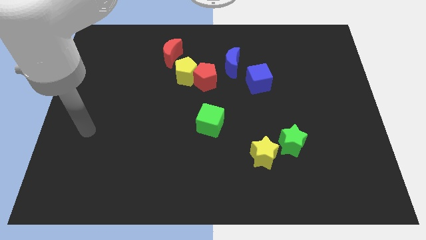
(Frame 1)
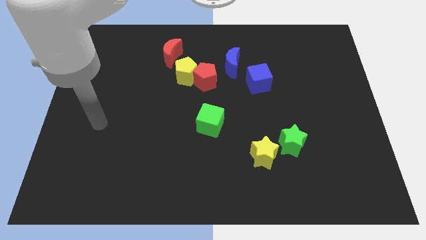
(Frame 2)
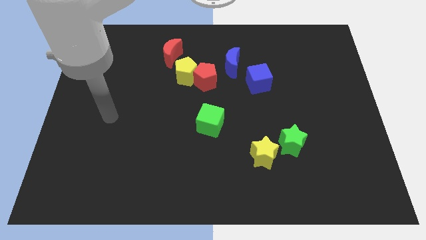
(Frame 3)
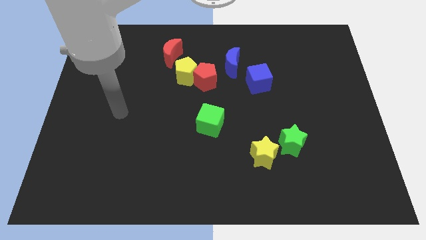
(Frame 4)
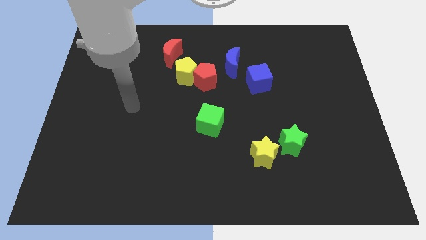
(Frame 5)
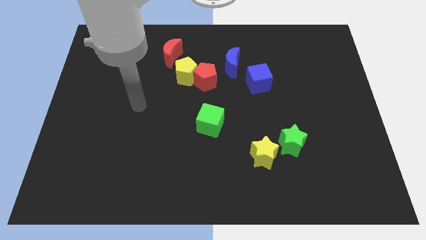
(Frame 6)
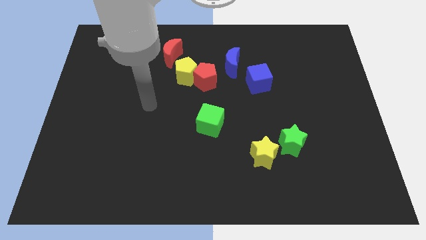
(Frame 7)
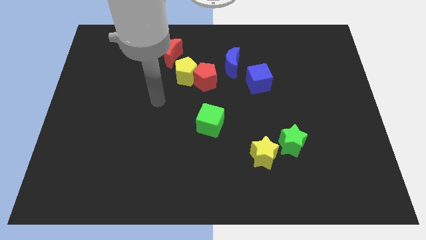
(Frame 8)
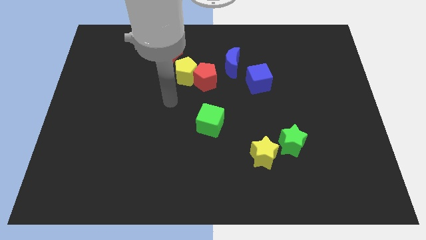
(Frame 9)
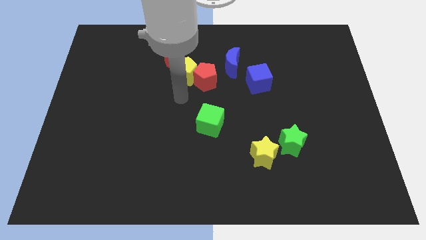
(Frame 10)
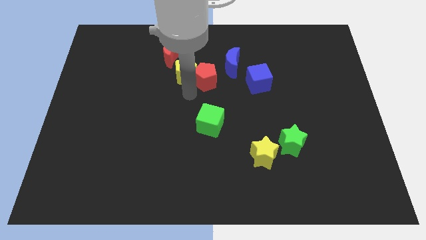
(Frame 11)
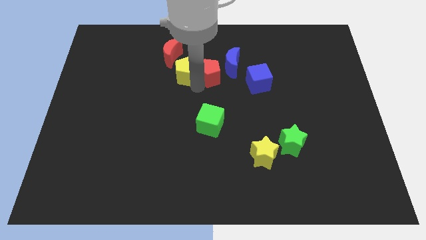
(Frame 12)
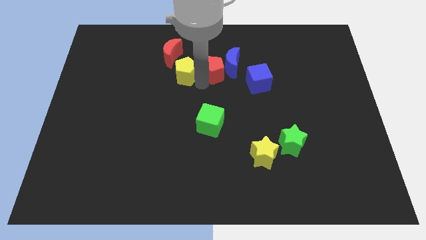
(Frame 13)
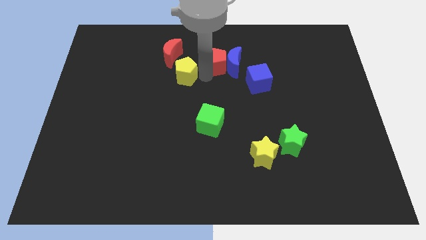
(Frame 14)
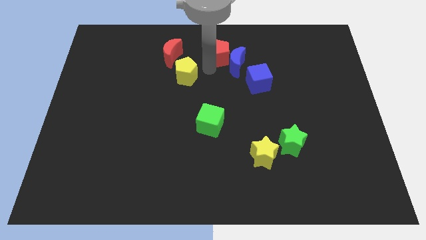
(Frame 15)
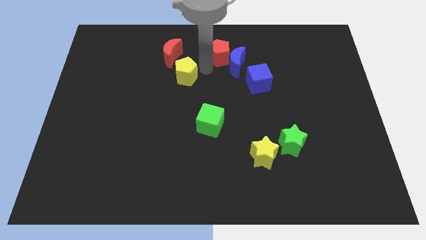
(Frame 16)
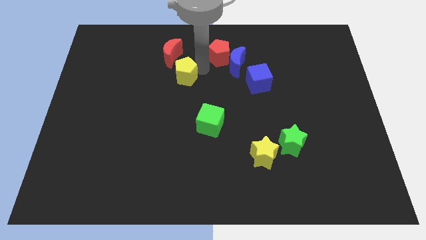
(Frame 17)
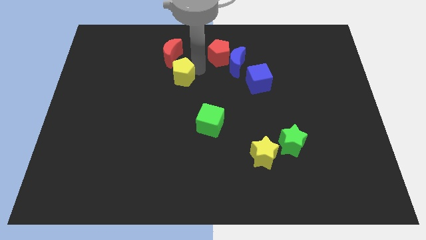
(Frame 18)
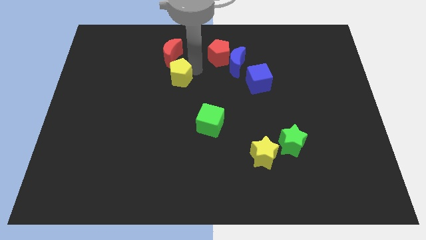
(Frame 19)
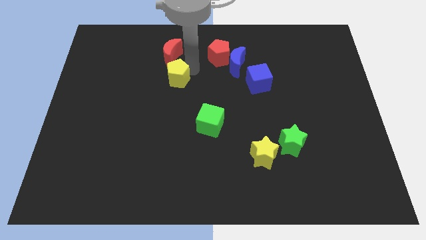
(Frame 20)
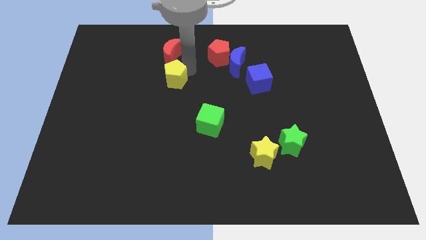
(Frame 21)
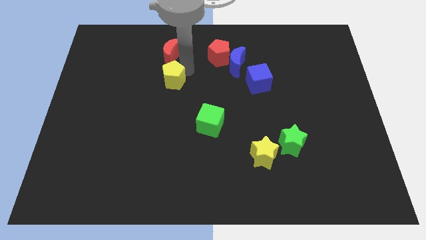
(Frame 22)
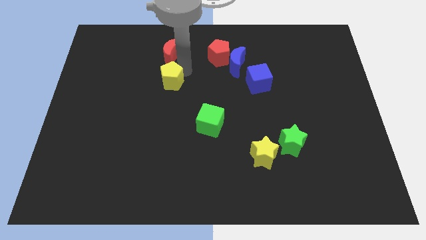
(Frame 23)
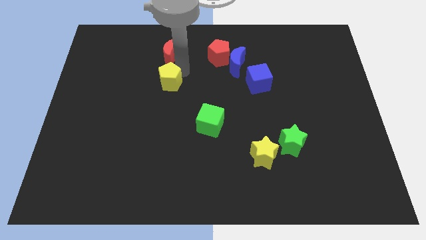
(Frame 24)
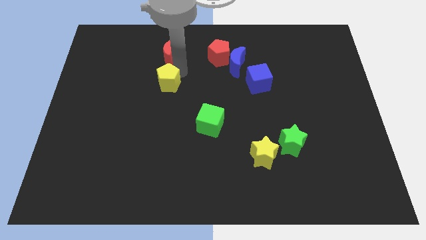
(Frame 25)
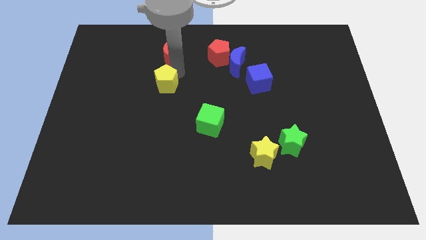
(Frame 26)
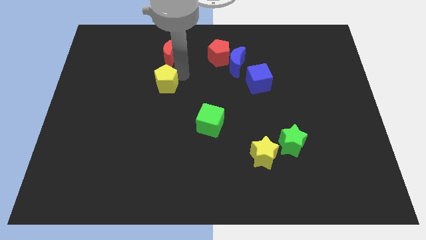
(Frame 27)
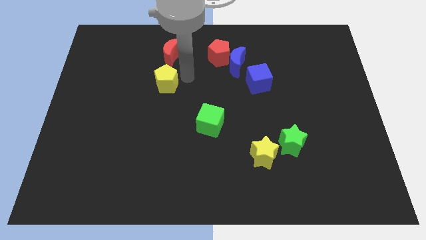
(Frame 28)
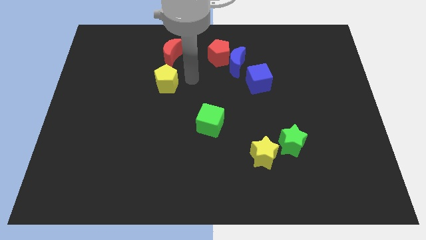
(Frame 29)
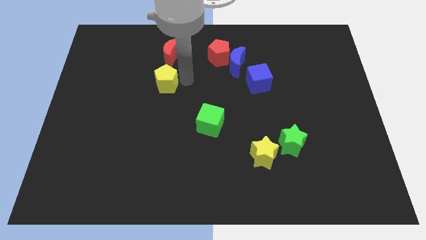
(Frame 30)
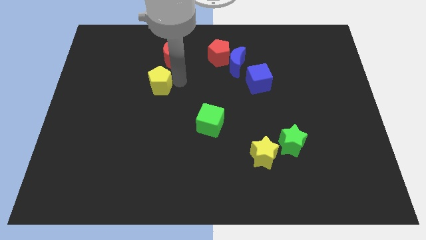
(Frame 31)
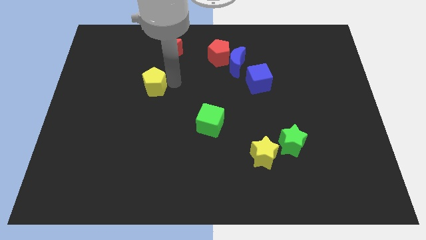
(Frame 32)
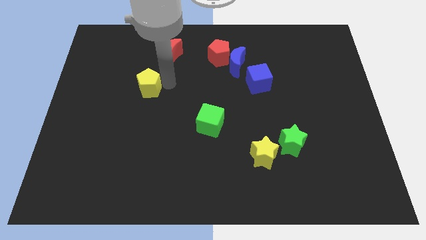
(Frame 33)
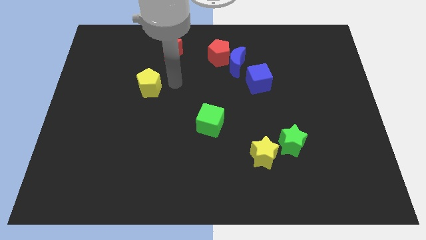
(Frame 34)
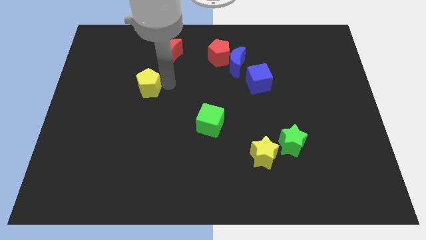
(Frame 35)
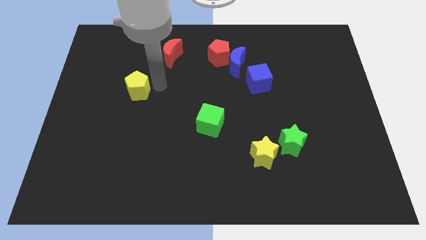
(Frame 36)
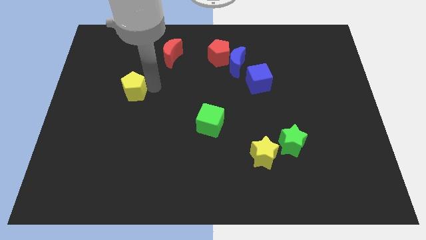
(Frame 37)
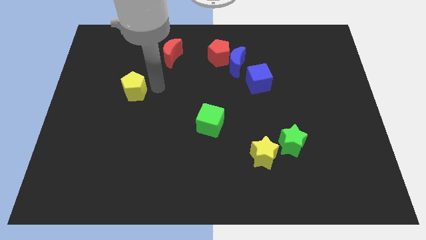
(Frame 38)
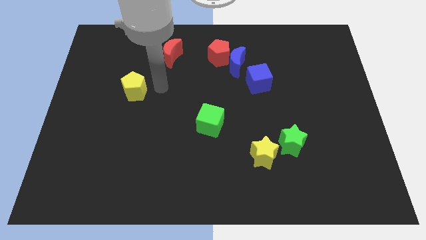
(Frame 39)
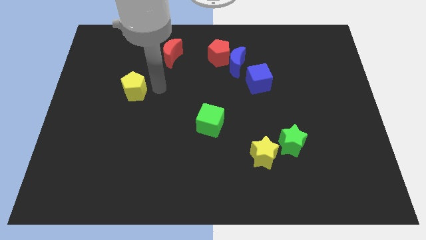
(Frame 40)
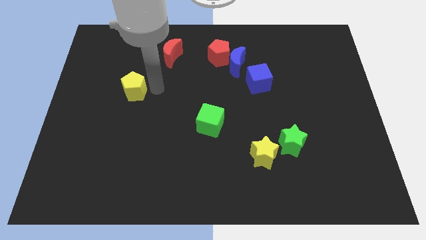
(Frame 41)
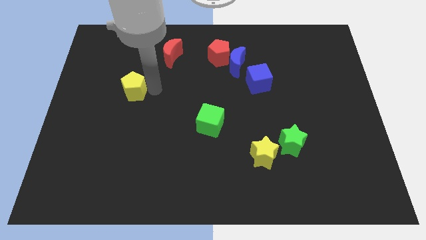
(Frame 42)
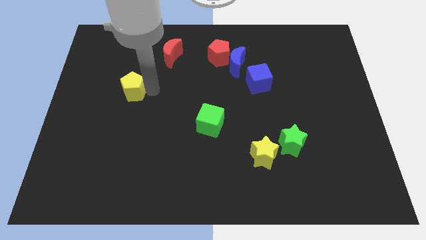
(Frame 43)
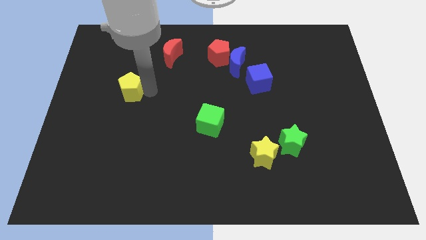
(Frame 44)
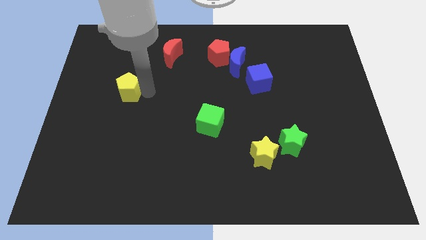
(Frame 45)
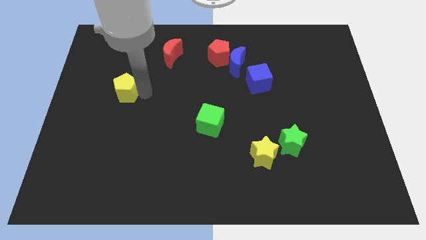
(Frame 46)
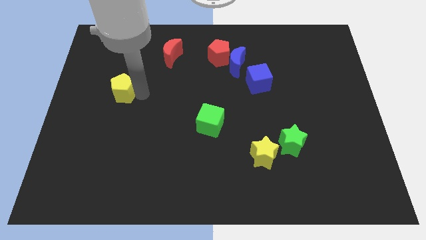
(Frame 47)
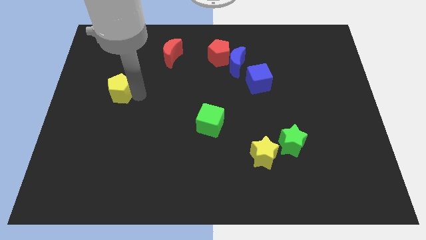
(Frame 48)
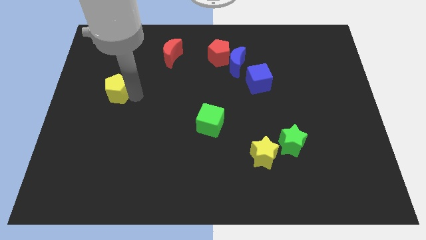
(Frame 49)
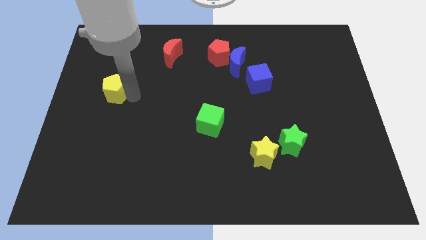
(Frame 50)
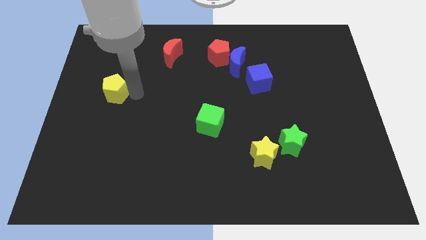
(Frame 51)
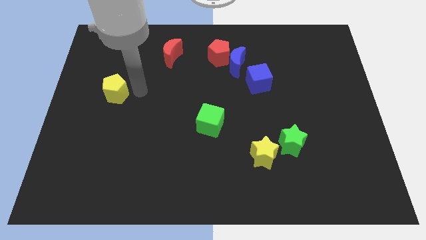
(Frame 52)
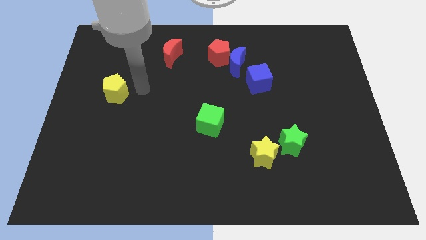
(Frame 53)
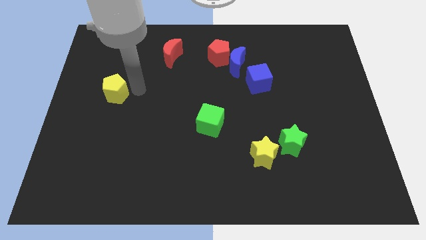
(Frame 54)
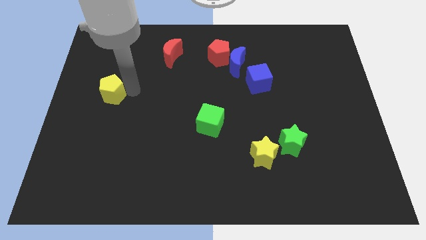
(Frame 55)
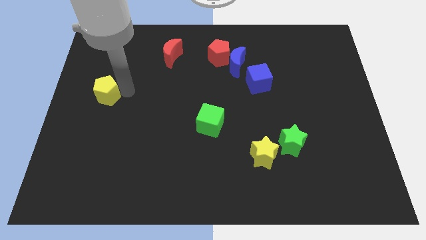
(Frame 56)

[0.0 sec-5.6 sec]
push the yellow pentagon to the left side of the board
